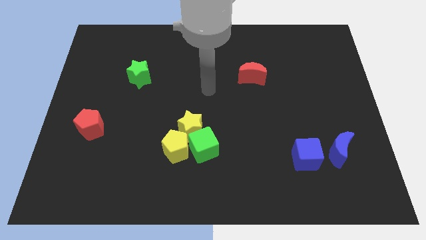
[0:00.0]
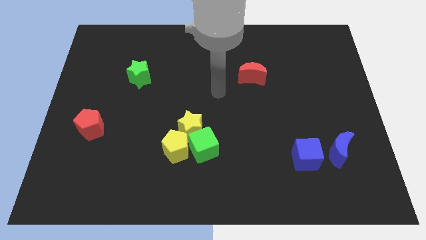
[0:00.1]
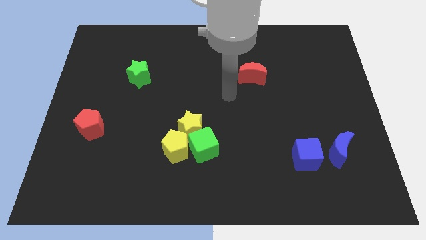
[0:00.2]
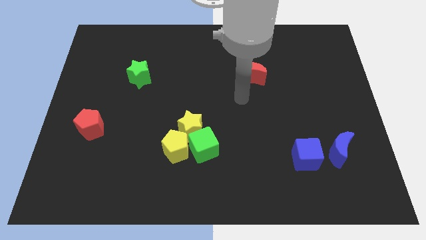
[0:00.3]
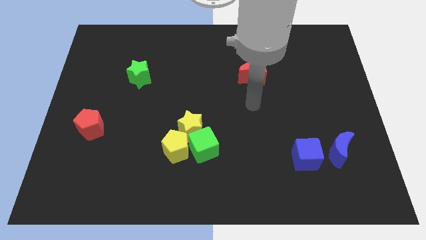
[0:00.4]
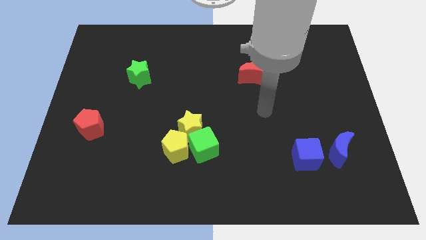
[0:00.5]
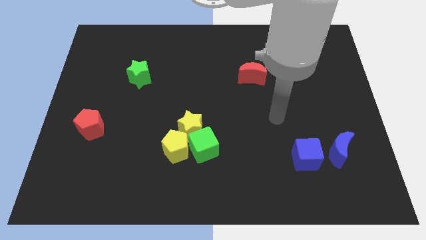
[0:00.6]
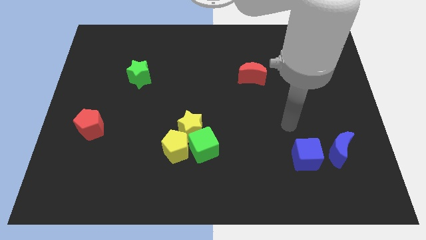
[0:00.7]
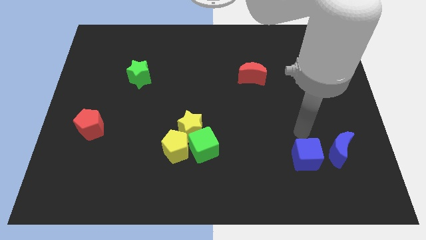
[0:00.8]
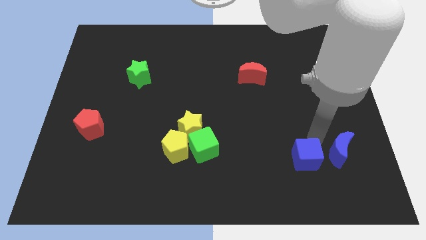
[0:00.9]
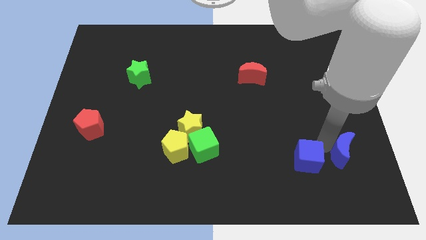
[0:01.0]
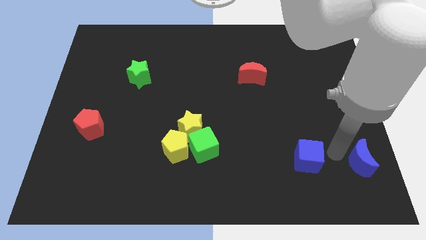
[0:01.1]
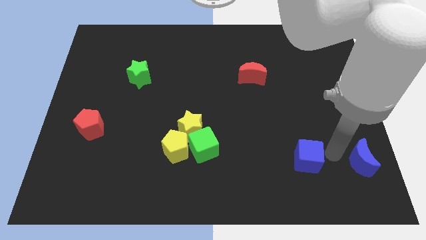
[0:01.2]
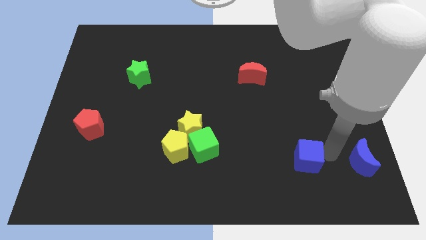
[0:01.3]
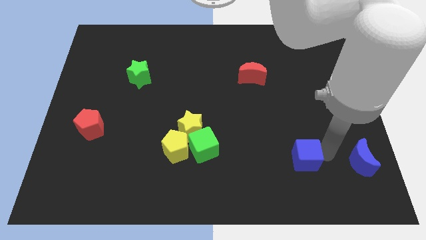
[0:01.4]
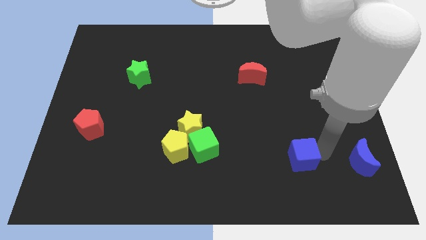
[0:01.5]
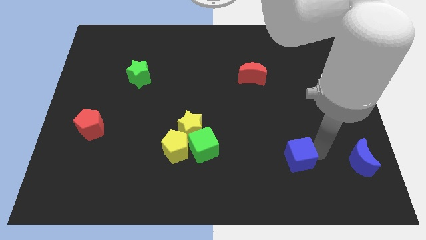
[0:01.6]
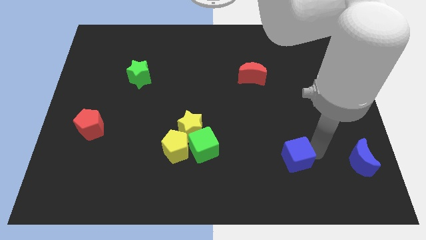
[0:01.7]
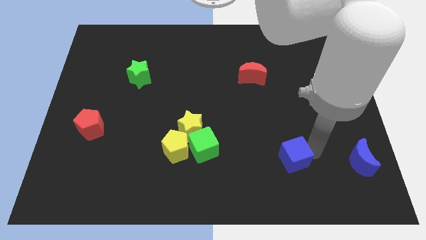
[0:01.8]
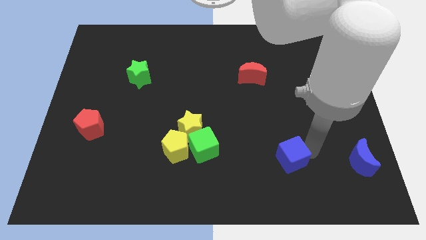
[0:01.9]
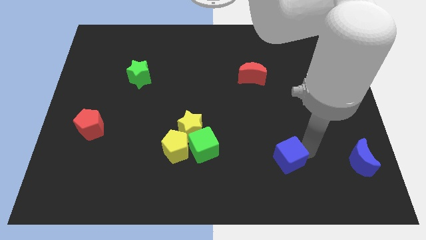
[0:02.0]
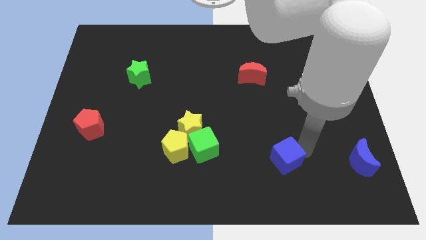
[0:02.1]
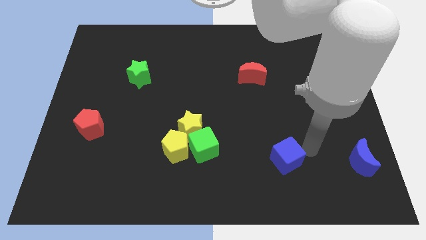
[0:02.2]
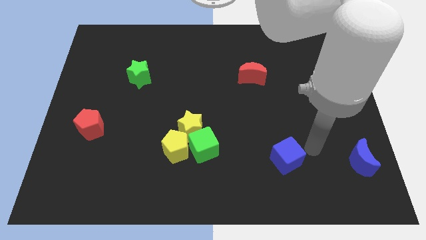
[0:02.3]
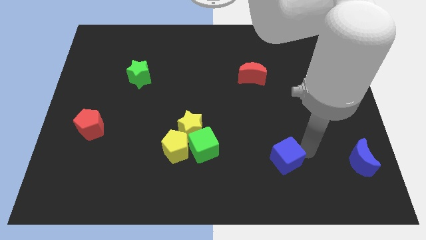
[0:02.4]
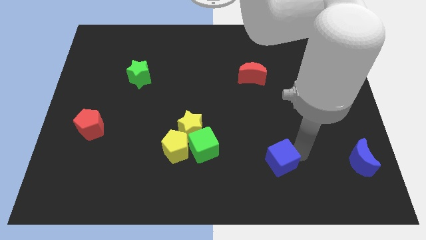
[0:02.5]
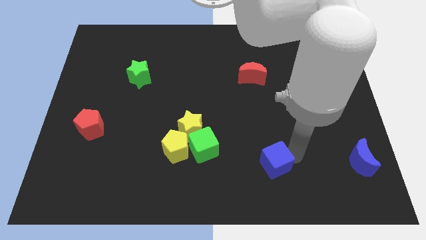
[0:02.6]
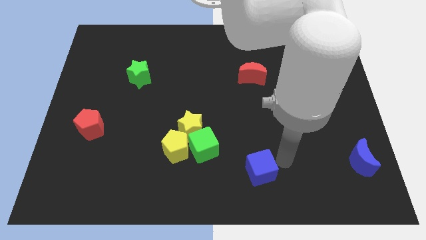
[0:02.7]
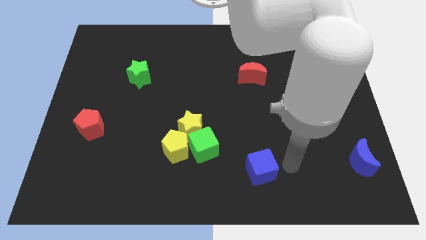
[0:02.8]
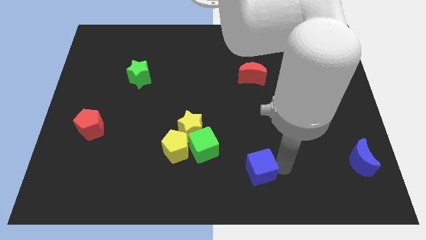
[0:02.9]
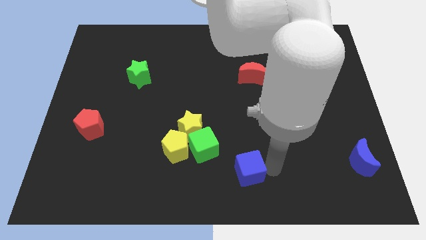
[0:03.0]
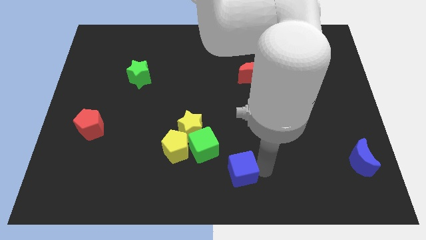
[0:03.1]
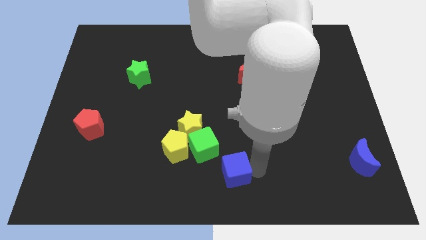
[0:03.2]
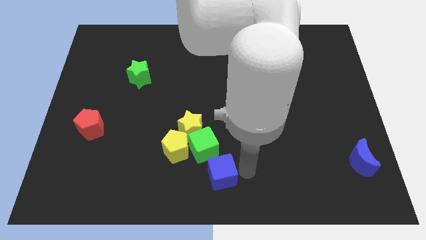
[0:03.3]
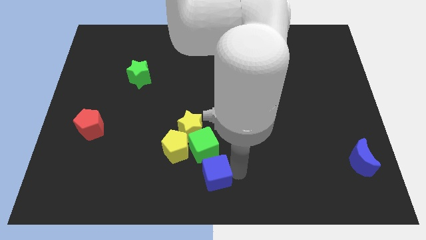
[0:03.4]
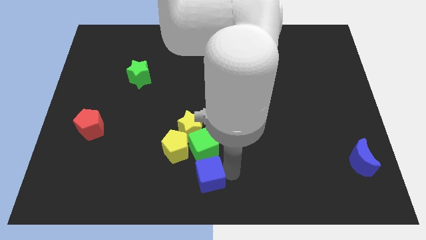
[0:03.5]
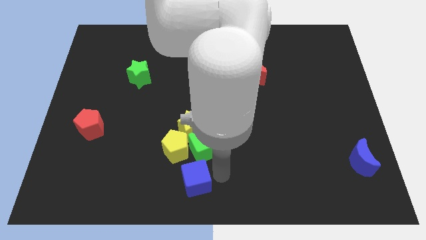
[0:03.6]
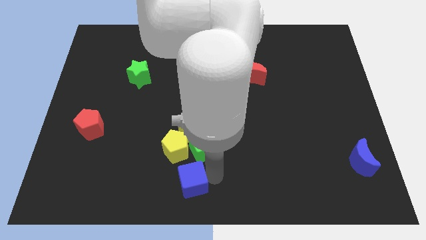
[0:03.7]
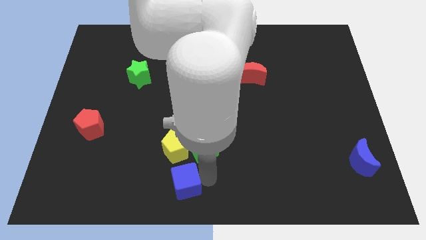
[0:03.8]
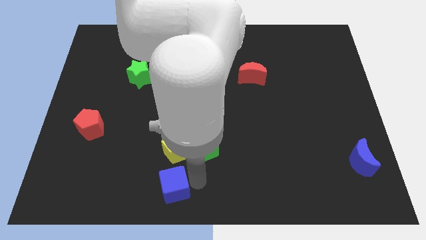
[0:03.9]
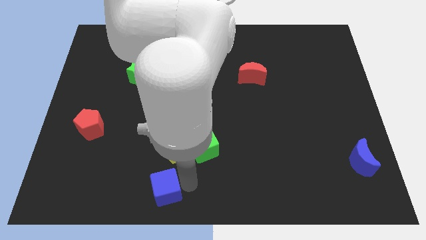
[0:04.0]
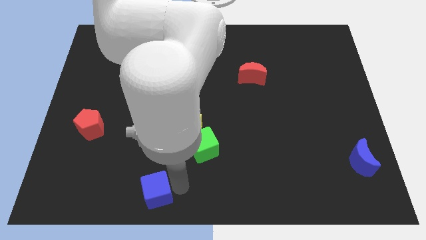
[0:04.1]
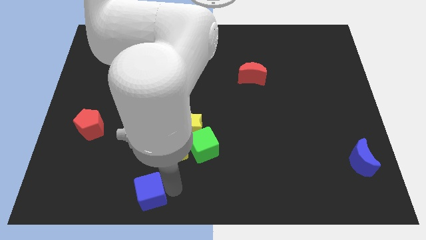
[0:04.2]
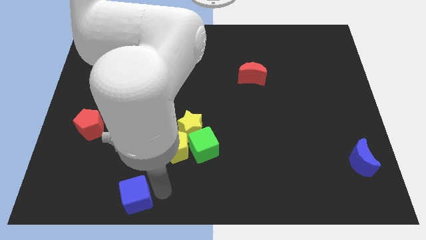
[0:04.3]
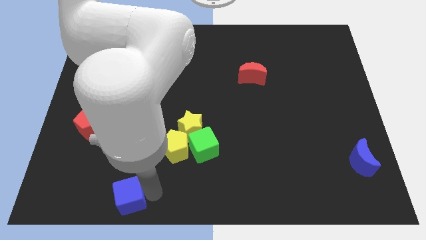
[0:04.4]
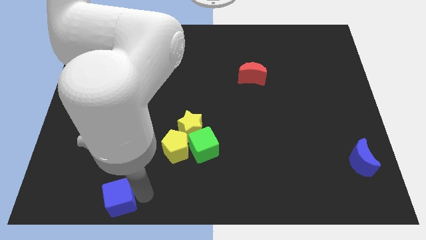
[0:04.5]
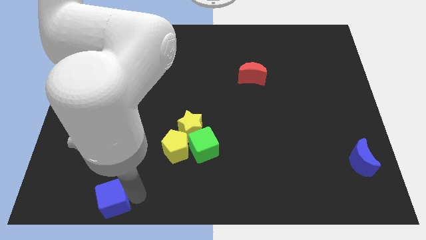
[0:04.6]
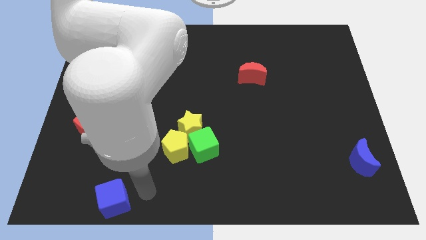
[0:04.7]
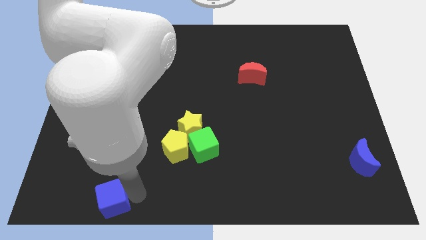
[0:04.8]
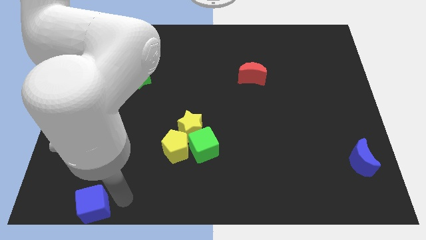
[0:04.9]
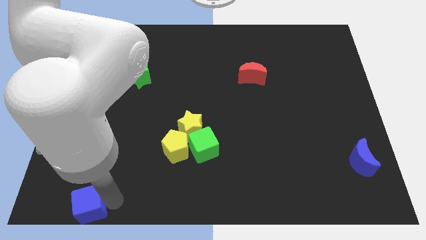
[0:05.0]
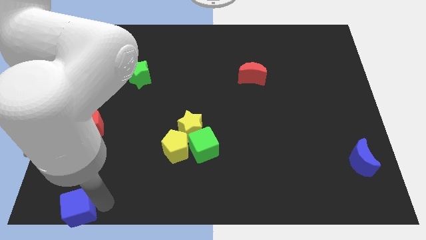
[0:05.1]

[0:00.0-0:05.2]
move the blue cube to the bottom left

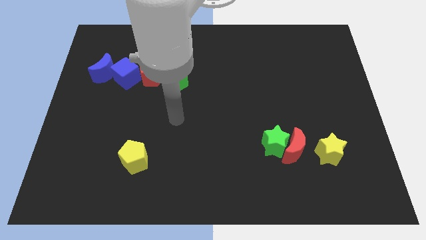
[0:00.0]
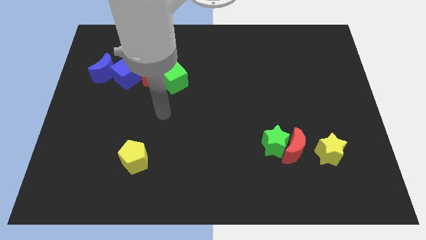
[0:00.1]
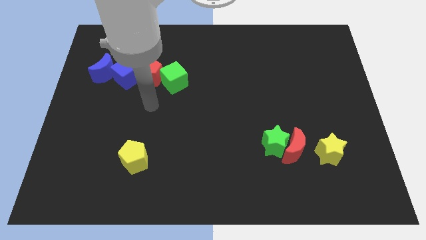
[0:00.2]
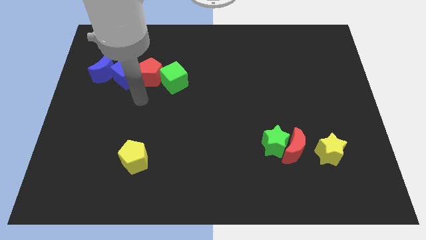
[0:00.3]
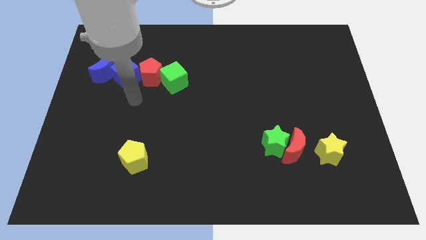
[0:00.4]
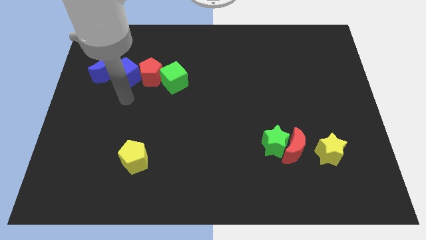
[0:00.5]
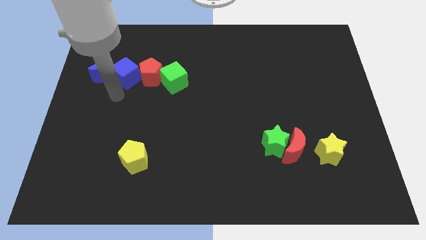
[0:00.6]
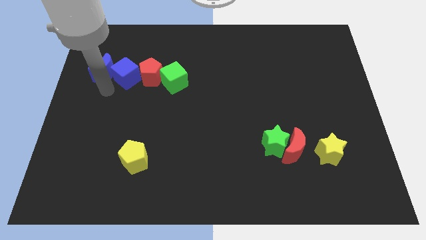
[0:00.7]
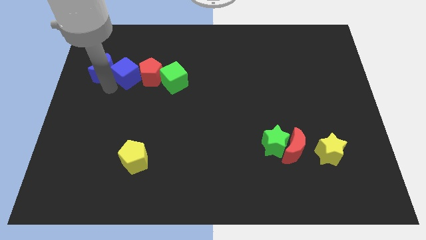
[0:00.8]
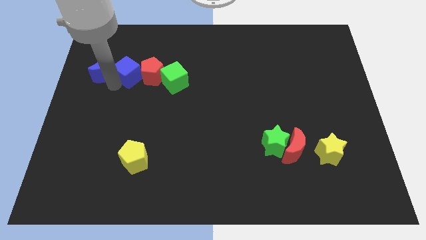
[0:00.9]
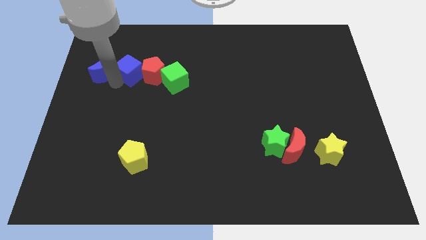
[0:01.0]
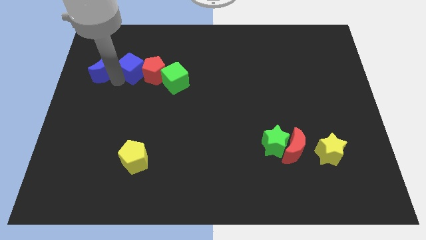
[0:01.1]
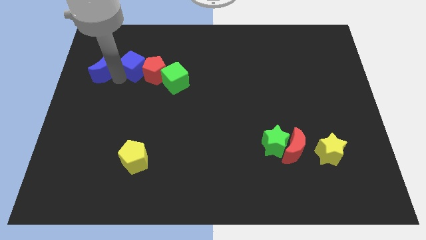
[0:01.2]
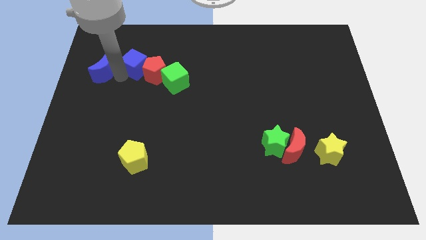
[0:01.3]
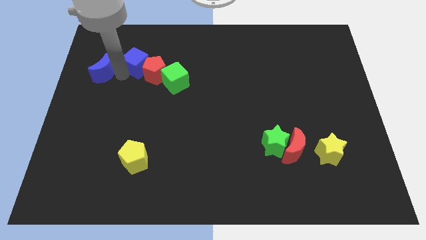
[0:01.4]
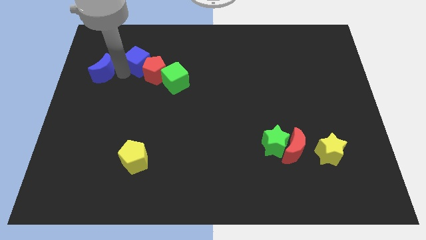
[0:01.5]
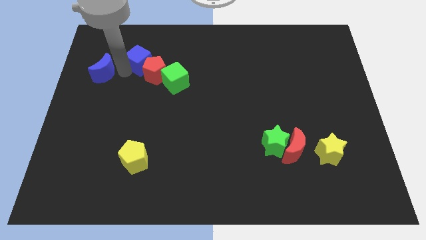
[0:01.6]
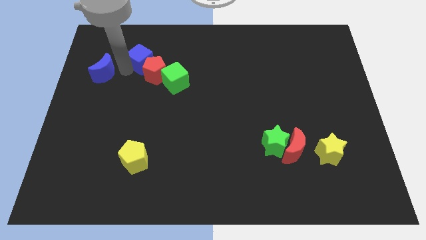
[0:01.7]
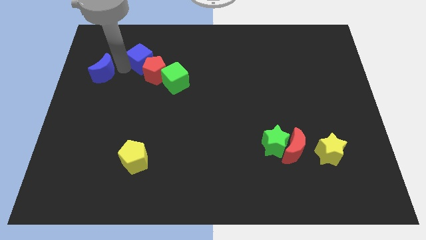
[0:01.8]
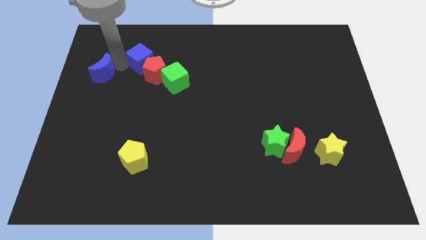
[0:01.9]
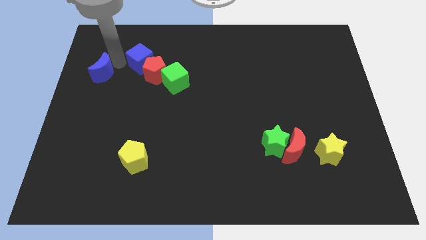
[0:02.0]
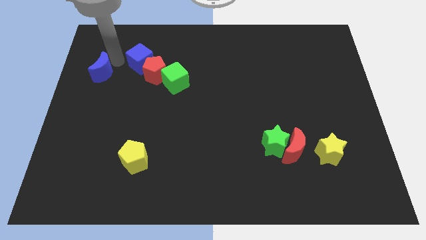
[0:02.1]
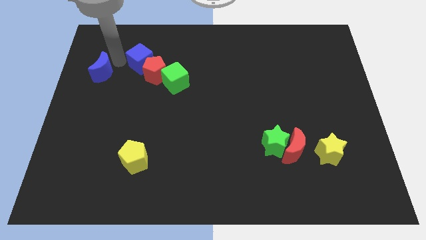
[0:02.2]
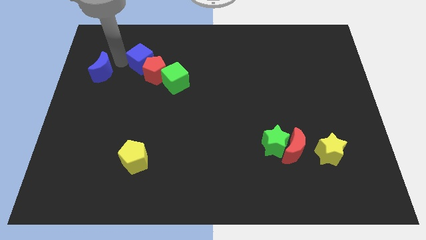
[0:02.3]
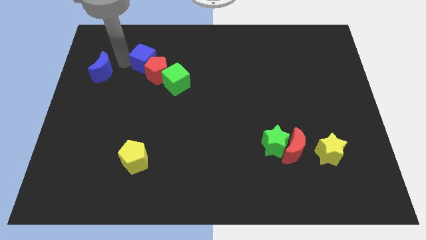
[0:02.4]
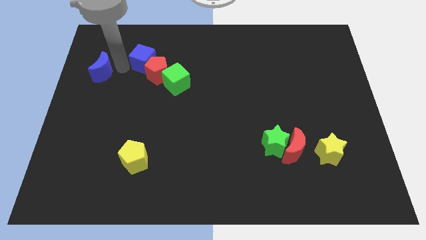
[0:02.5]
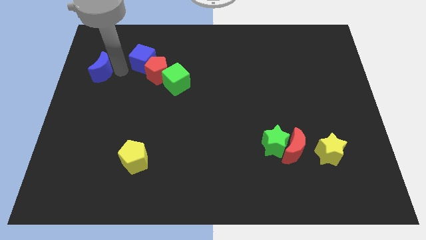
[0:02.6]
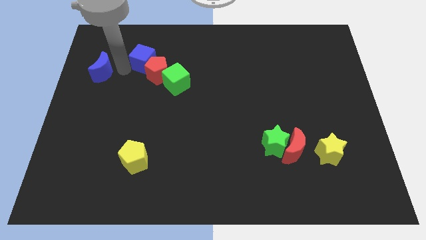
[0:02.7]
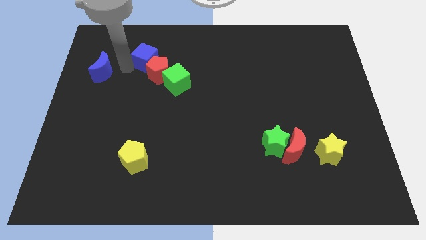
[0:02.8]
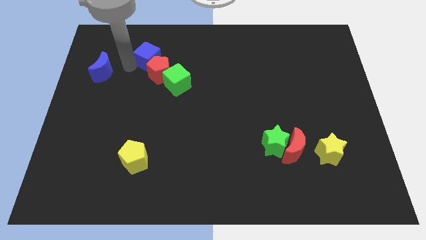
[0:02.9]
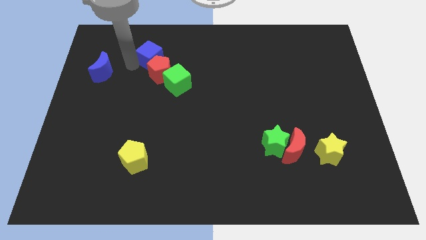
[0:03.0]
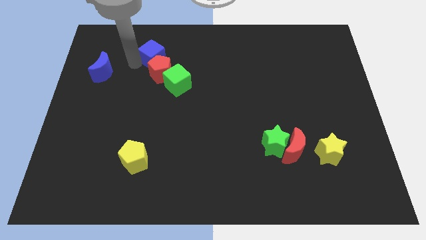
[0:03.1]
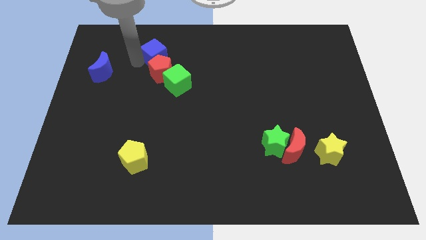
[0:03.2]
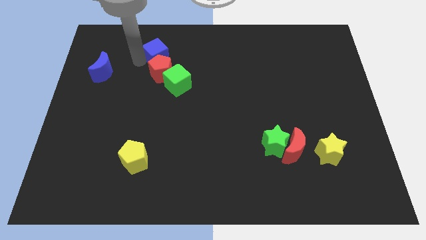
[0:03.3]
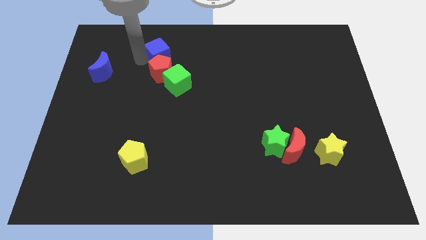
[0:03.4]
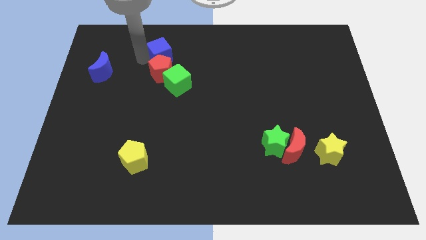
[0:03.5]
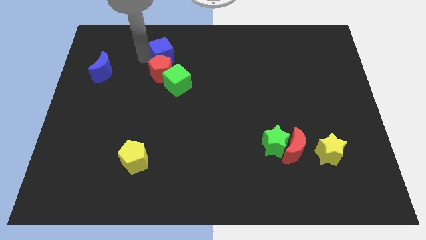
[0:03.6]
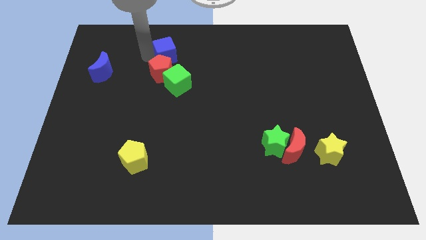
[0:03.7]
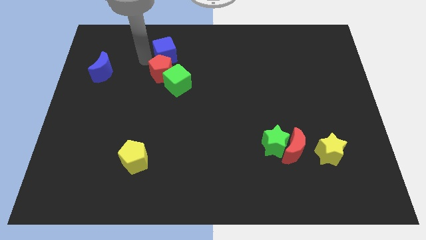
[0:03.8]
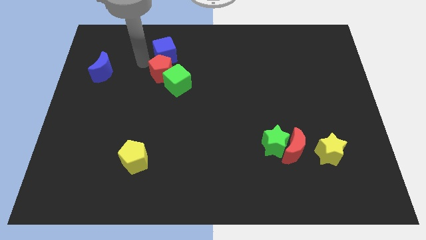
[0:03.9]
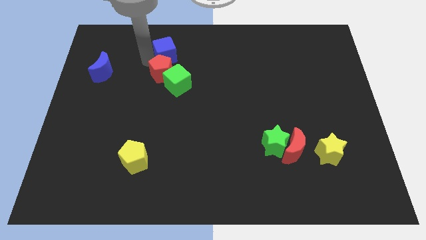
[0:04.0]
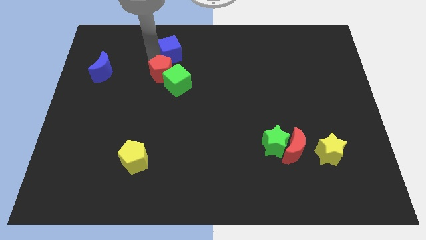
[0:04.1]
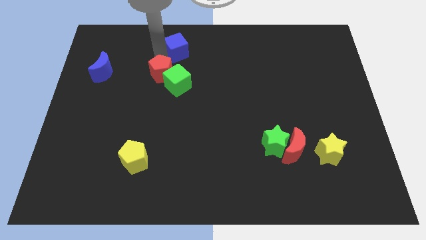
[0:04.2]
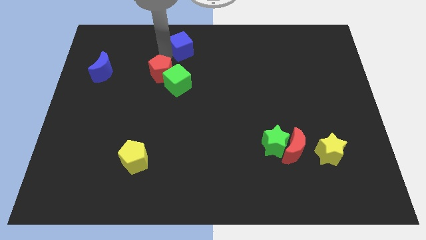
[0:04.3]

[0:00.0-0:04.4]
slide the blue cube to the top side
